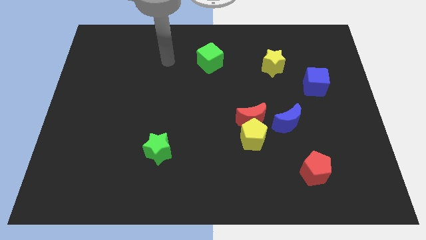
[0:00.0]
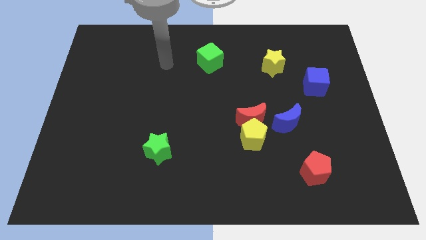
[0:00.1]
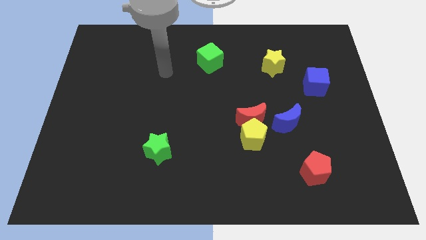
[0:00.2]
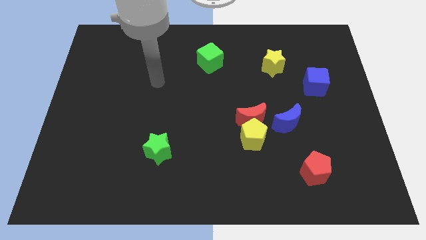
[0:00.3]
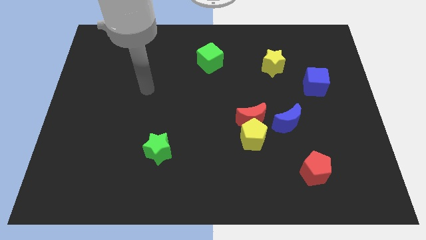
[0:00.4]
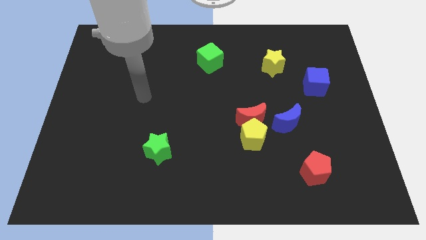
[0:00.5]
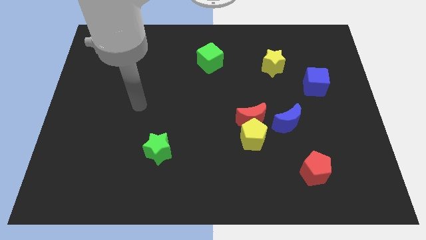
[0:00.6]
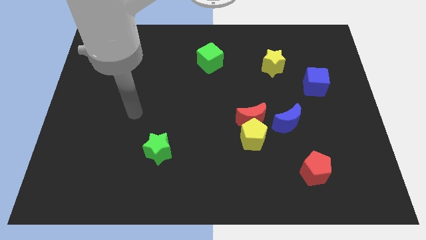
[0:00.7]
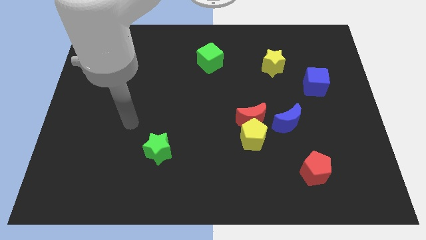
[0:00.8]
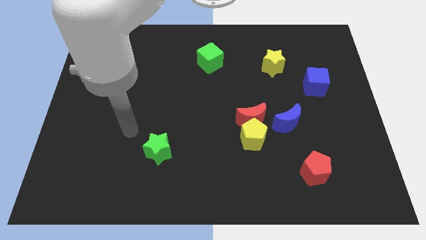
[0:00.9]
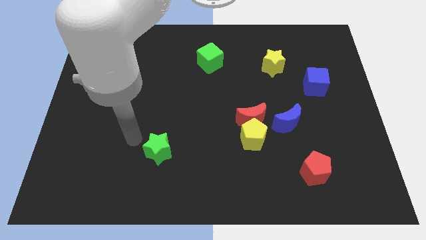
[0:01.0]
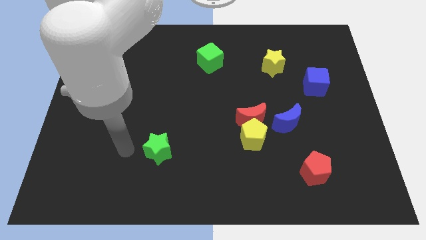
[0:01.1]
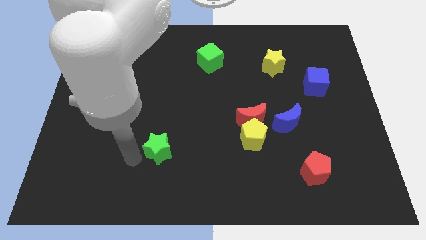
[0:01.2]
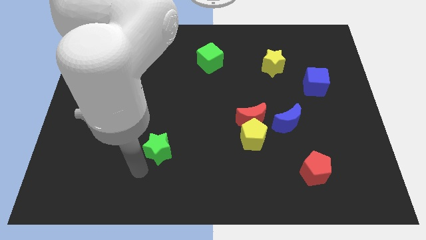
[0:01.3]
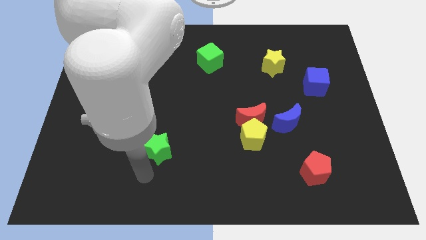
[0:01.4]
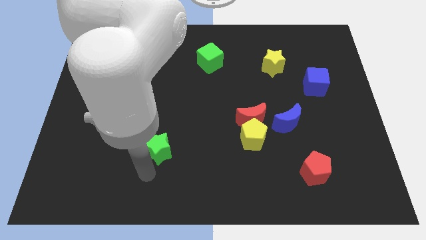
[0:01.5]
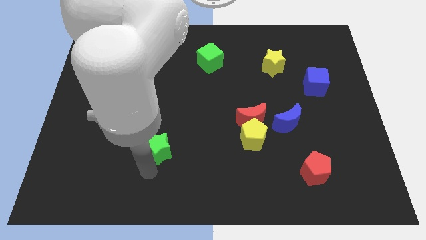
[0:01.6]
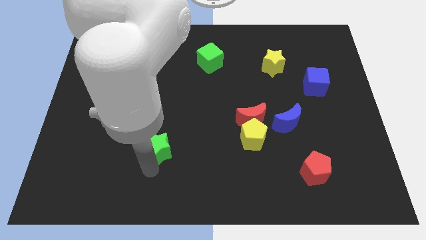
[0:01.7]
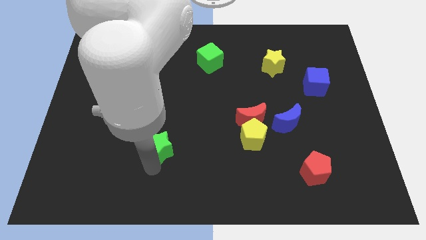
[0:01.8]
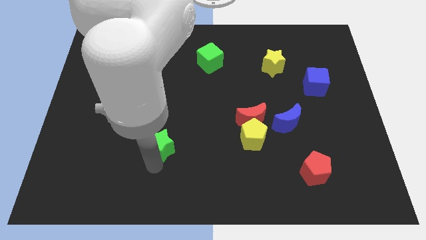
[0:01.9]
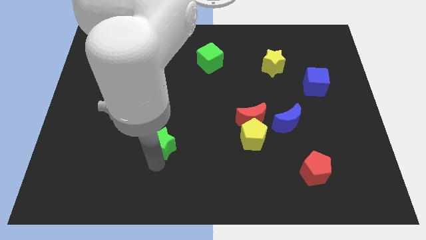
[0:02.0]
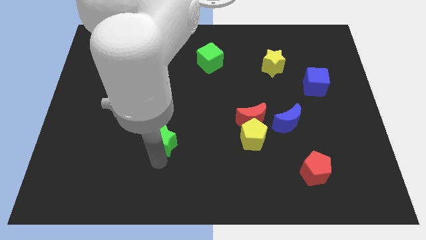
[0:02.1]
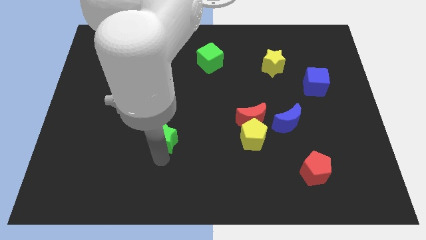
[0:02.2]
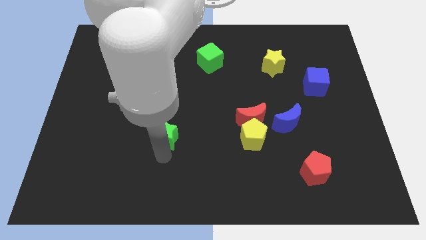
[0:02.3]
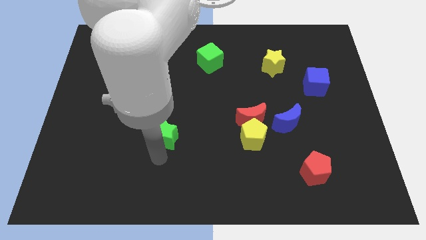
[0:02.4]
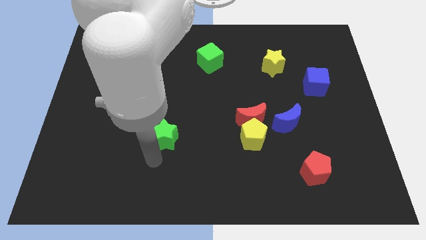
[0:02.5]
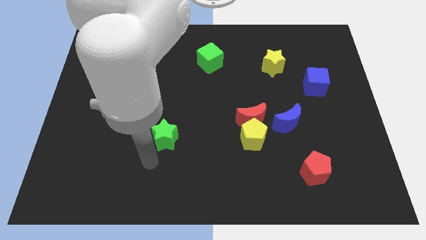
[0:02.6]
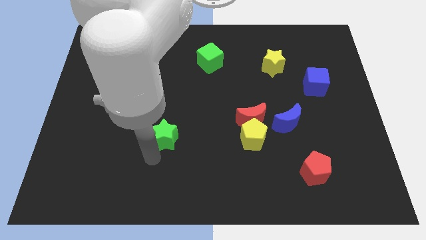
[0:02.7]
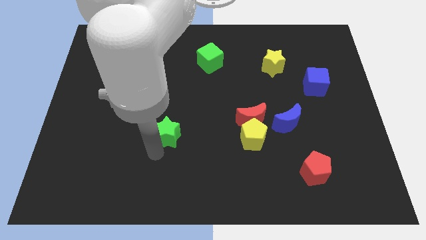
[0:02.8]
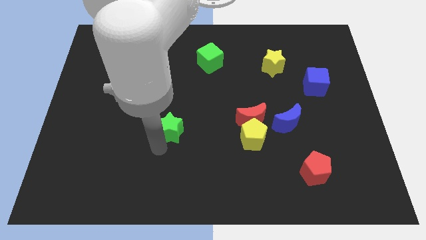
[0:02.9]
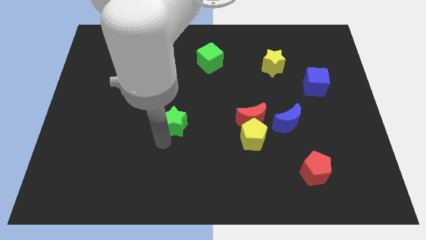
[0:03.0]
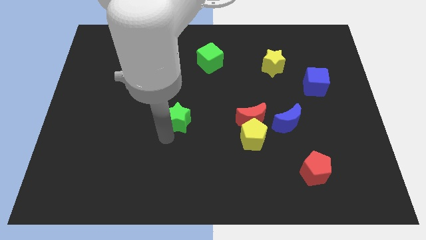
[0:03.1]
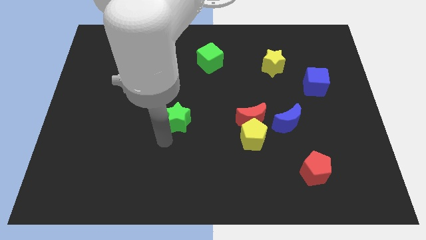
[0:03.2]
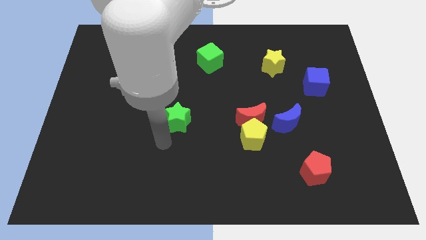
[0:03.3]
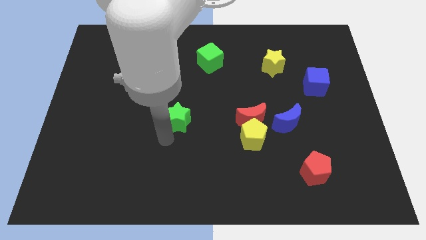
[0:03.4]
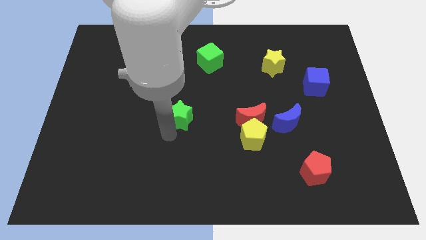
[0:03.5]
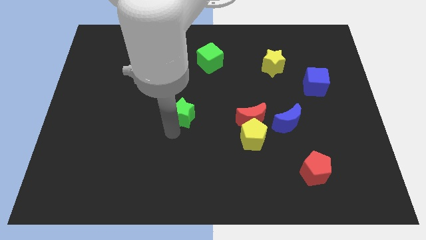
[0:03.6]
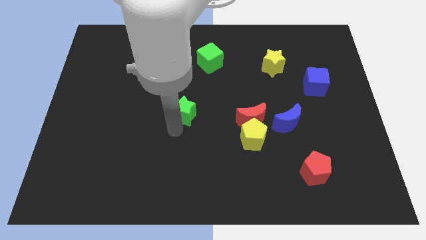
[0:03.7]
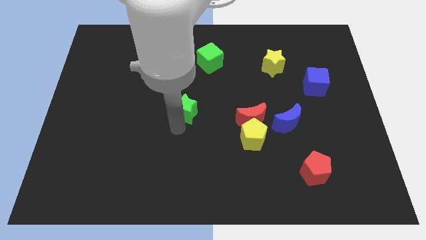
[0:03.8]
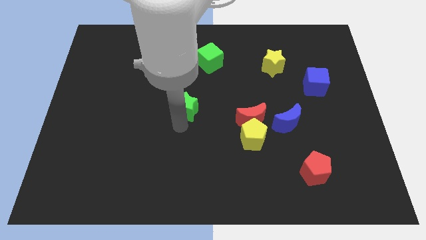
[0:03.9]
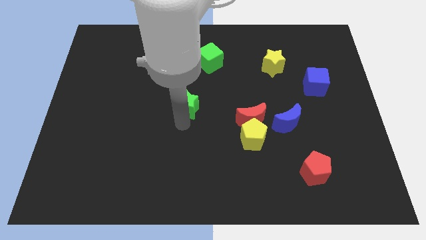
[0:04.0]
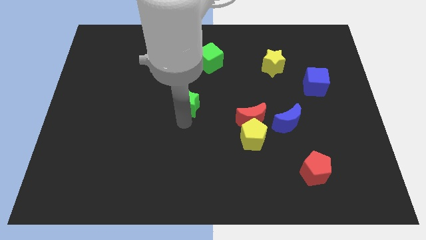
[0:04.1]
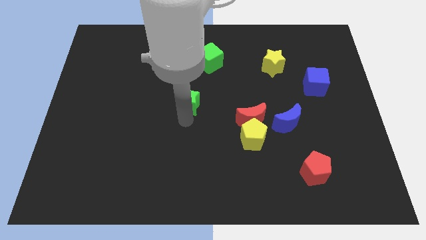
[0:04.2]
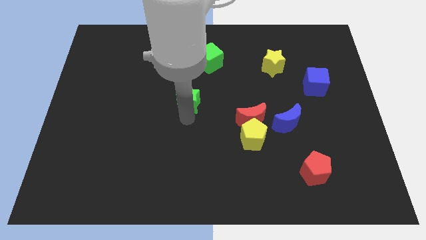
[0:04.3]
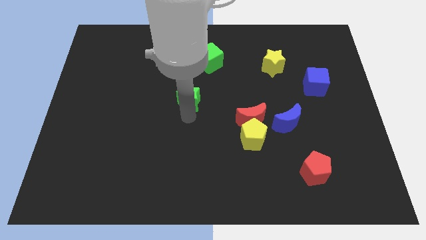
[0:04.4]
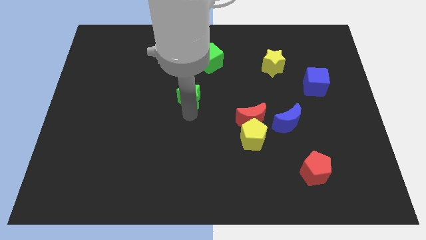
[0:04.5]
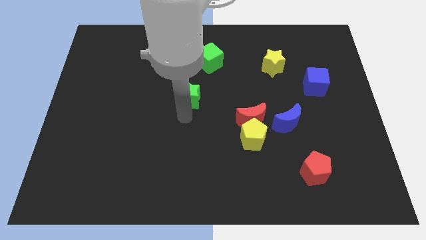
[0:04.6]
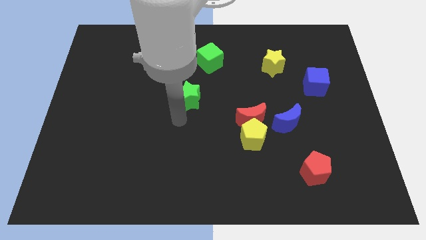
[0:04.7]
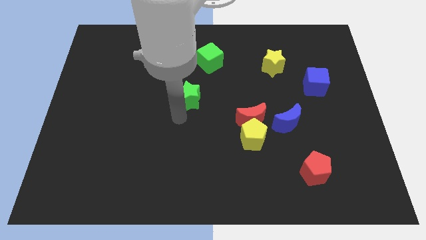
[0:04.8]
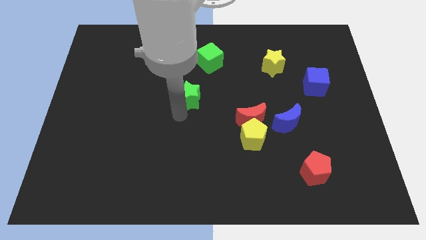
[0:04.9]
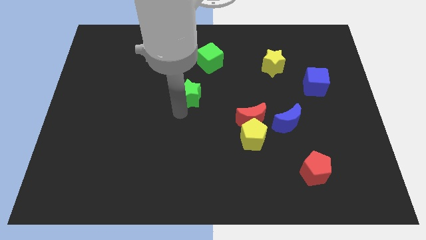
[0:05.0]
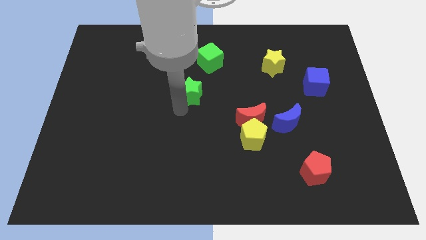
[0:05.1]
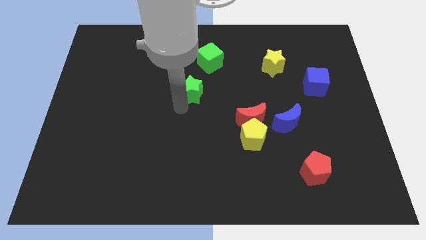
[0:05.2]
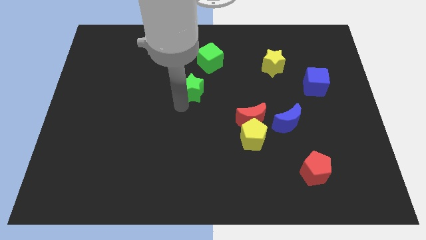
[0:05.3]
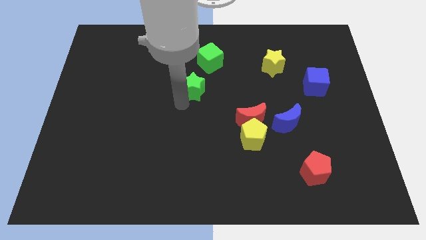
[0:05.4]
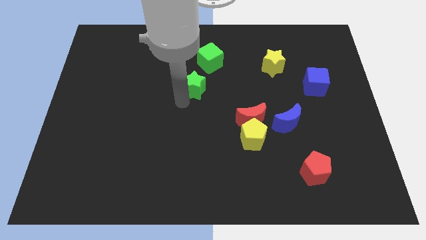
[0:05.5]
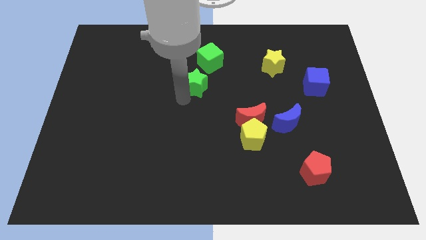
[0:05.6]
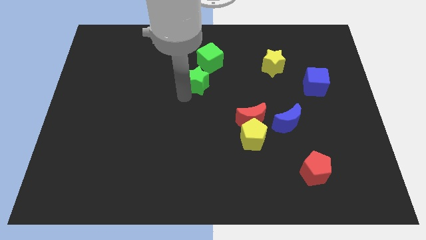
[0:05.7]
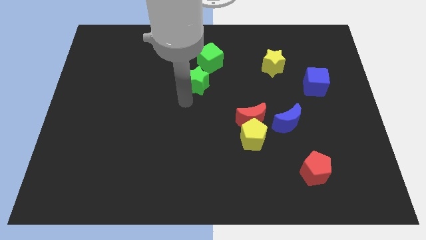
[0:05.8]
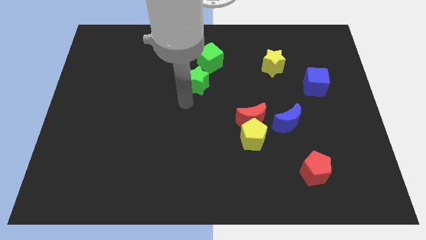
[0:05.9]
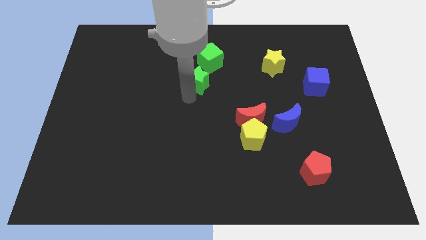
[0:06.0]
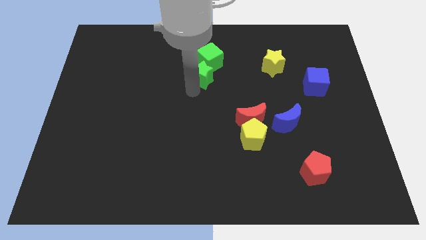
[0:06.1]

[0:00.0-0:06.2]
slide the green star next to the green cube

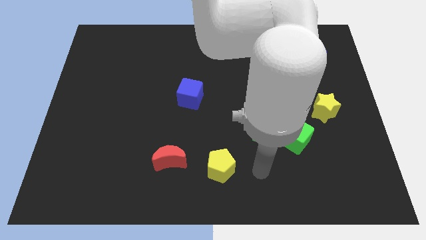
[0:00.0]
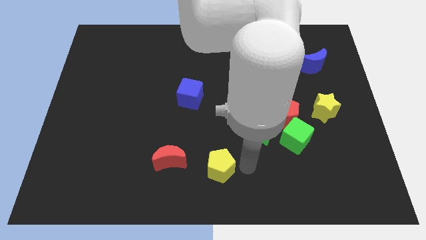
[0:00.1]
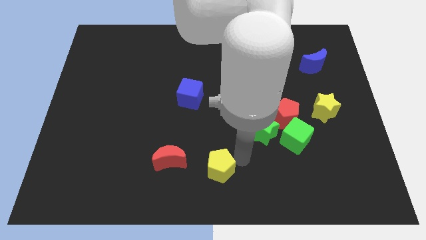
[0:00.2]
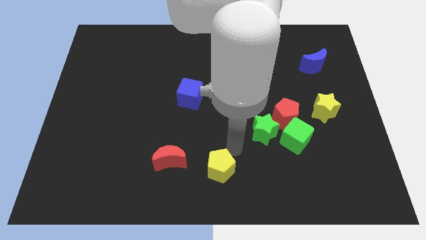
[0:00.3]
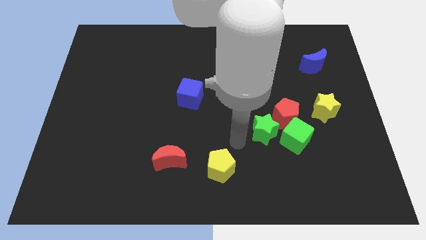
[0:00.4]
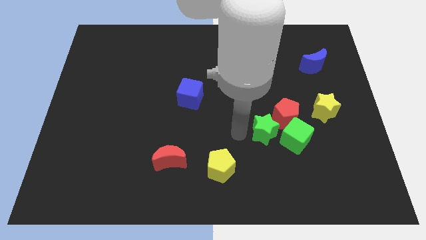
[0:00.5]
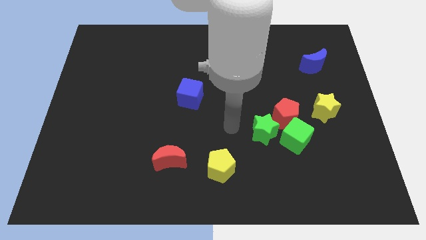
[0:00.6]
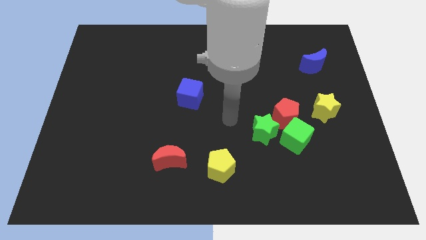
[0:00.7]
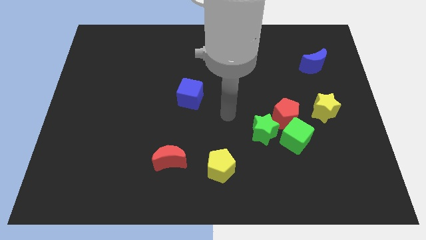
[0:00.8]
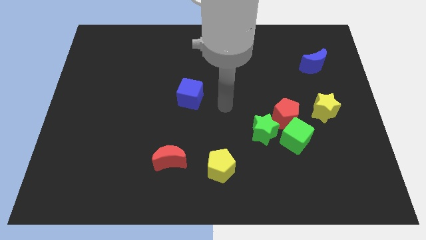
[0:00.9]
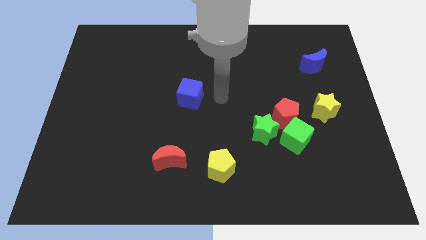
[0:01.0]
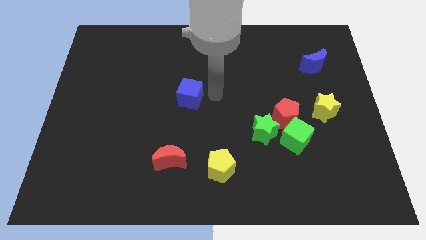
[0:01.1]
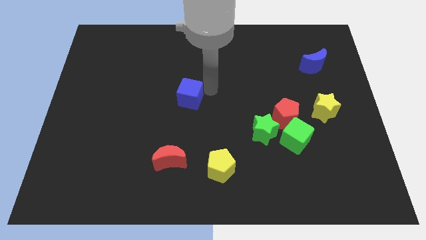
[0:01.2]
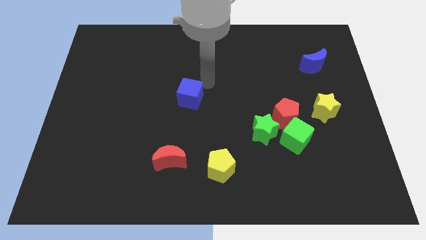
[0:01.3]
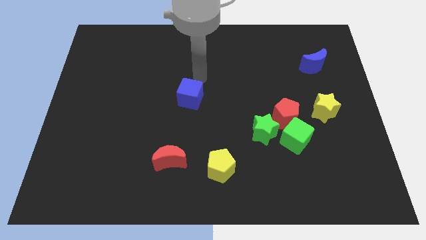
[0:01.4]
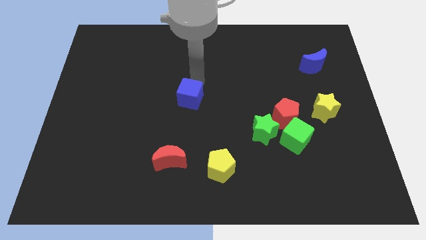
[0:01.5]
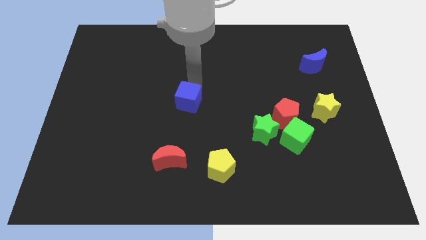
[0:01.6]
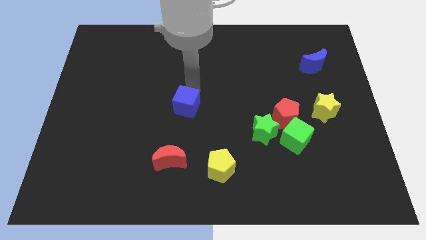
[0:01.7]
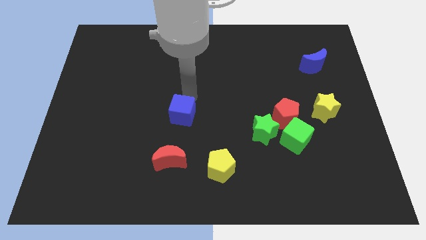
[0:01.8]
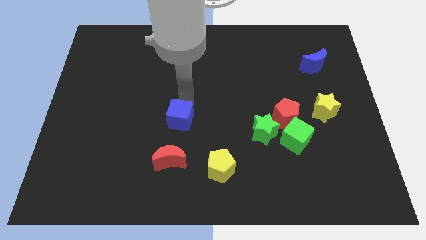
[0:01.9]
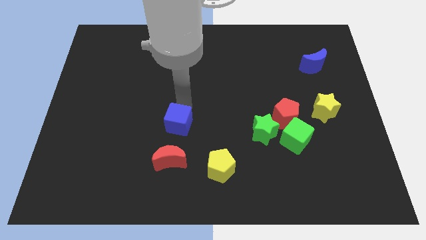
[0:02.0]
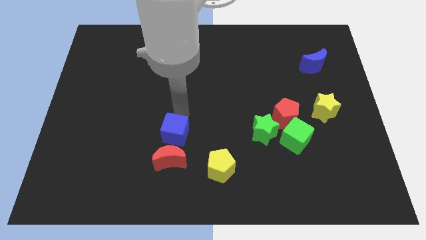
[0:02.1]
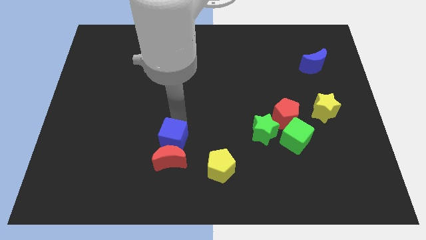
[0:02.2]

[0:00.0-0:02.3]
put the blue cube next to the red moon
